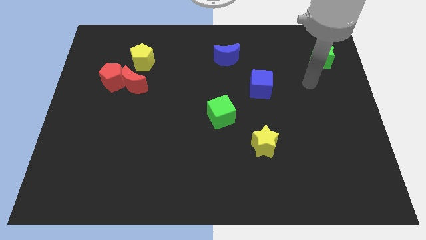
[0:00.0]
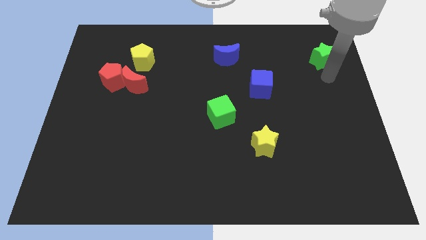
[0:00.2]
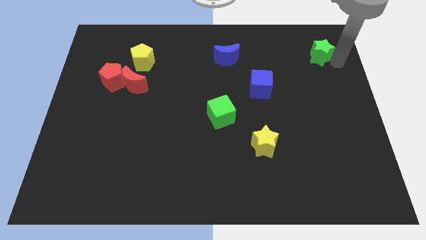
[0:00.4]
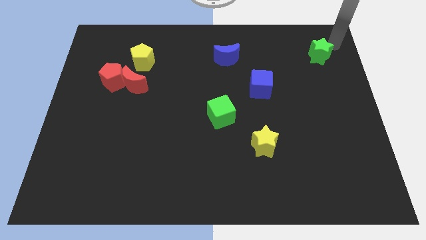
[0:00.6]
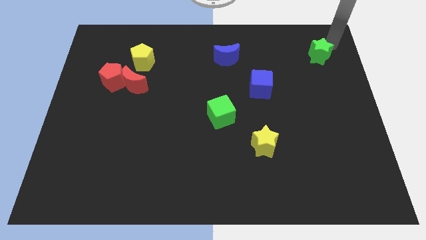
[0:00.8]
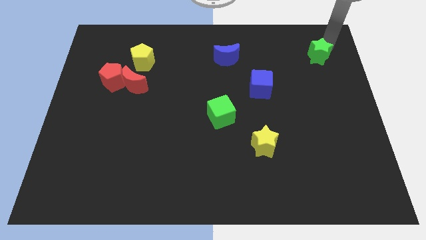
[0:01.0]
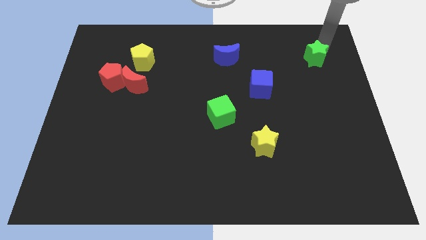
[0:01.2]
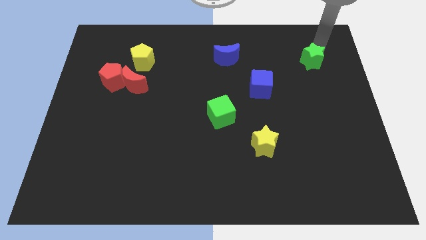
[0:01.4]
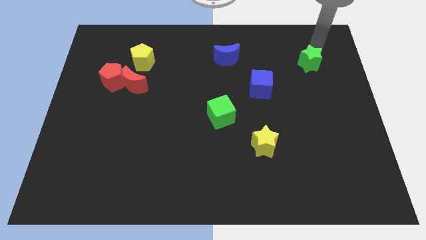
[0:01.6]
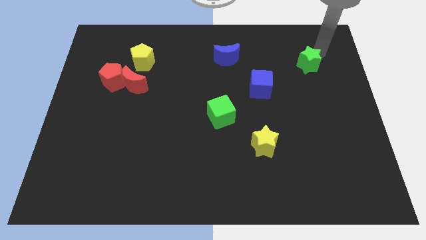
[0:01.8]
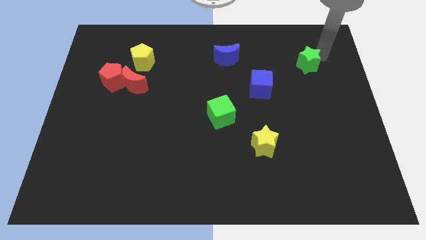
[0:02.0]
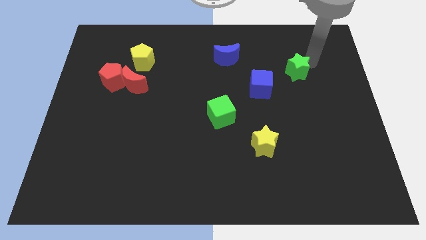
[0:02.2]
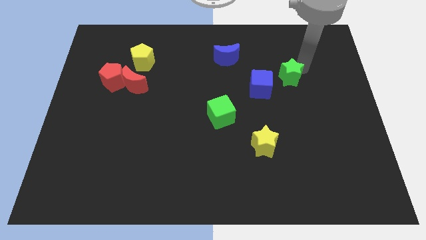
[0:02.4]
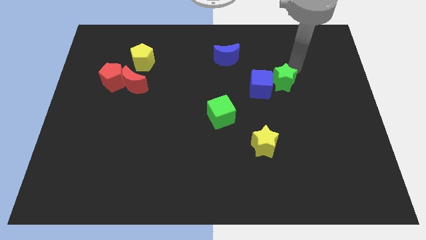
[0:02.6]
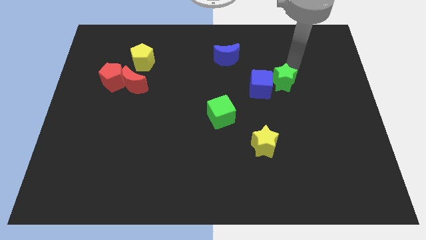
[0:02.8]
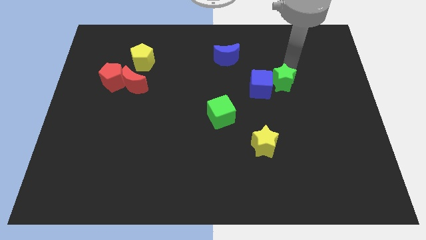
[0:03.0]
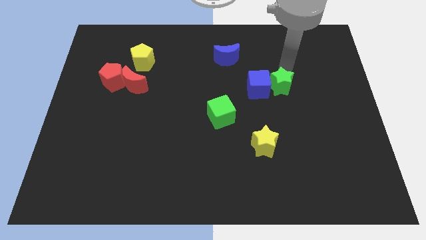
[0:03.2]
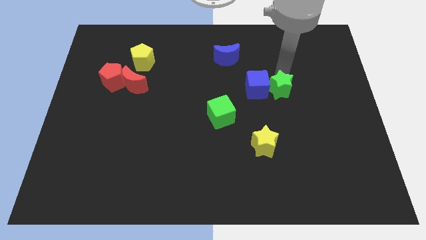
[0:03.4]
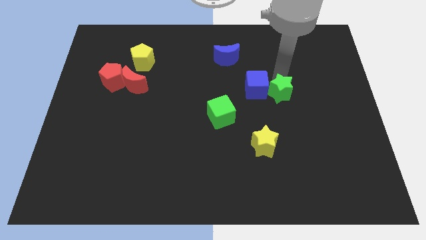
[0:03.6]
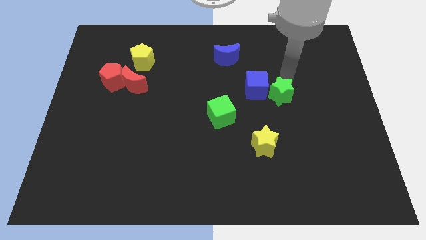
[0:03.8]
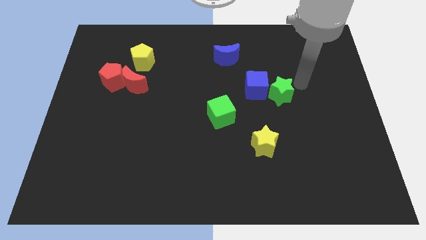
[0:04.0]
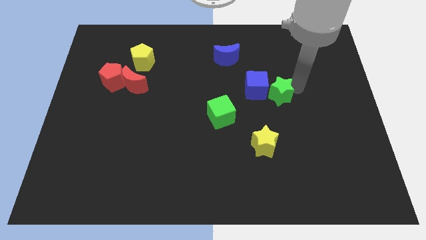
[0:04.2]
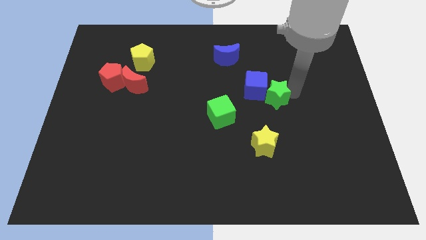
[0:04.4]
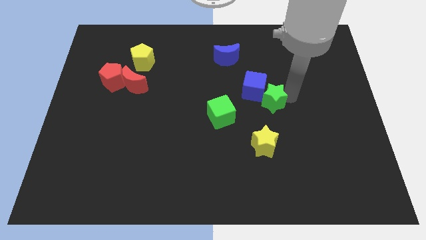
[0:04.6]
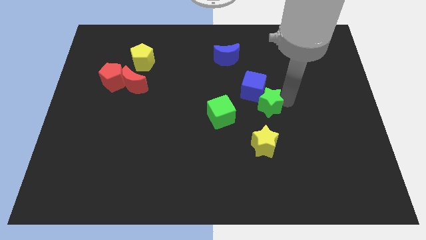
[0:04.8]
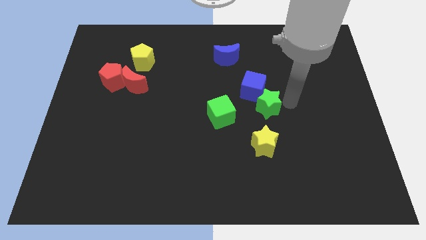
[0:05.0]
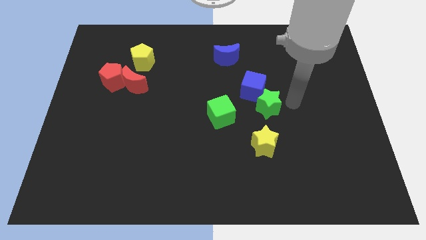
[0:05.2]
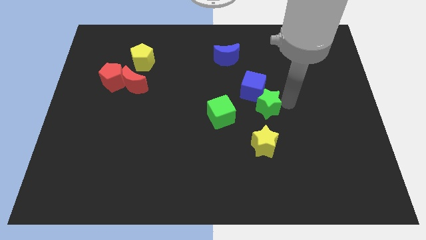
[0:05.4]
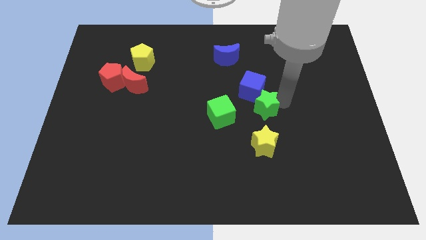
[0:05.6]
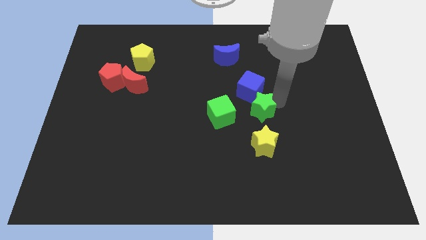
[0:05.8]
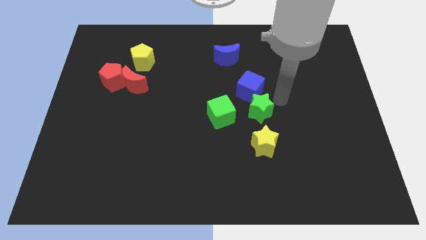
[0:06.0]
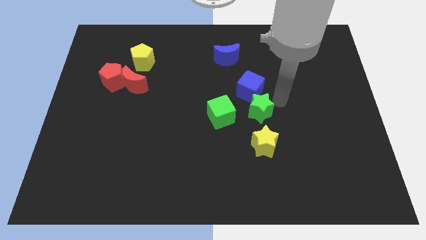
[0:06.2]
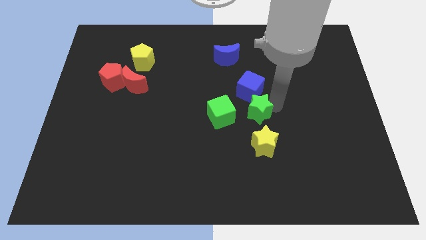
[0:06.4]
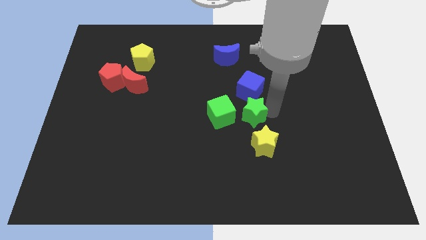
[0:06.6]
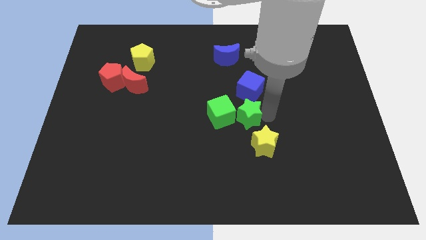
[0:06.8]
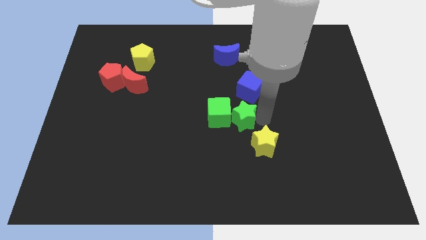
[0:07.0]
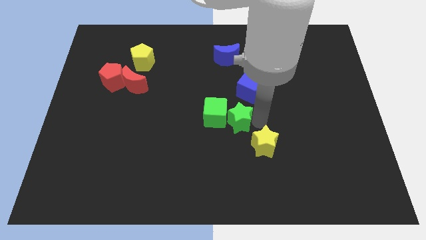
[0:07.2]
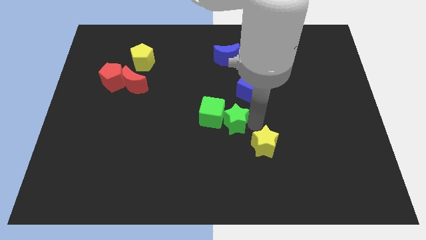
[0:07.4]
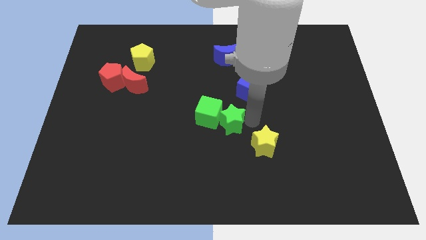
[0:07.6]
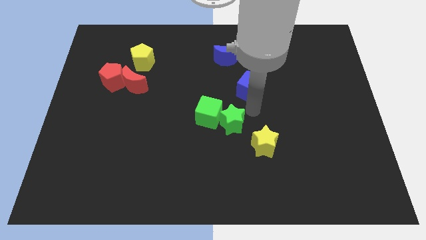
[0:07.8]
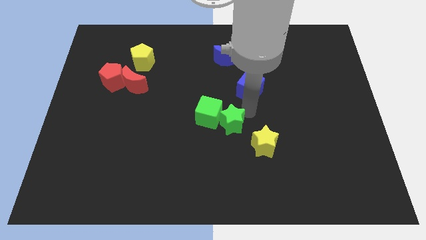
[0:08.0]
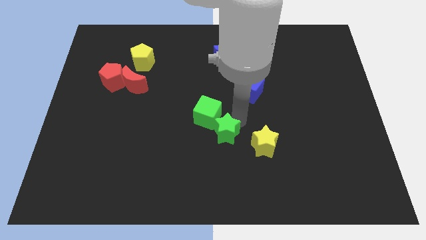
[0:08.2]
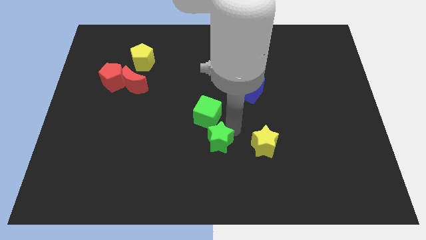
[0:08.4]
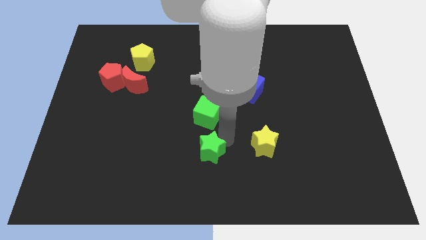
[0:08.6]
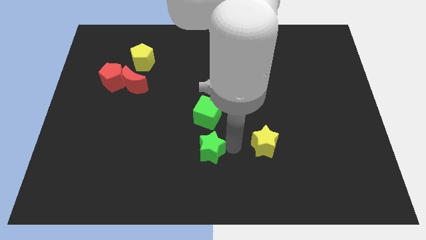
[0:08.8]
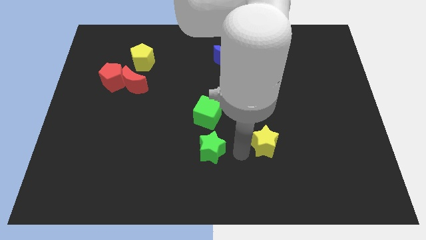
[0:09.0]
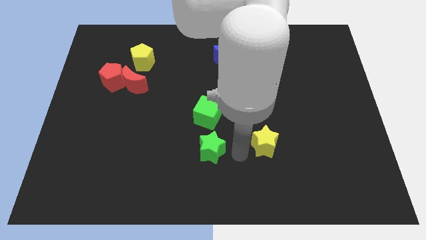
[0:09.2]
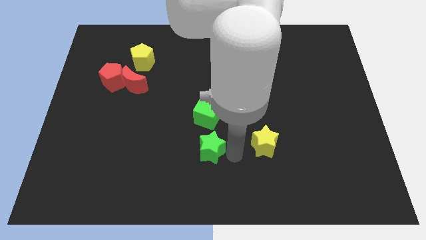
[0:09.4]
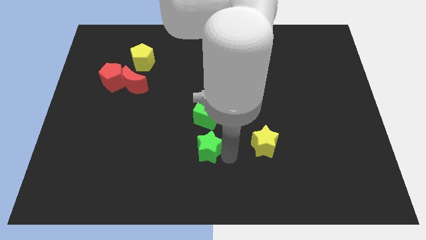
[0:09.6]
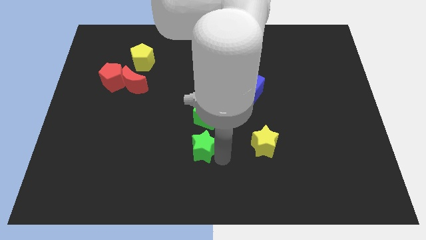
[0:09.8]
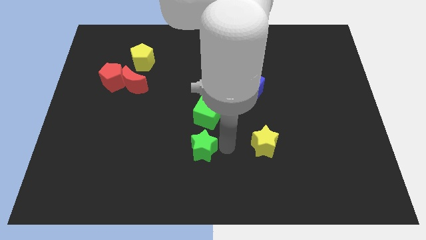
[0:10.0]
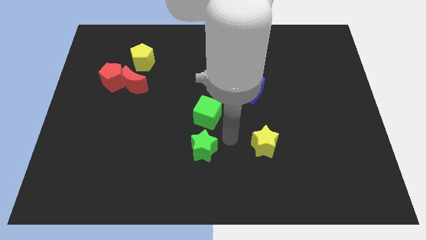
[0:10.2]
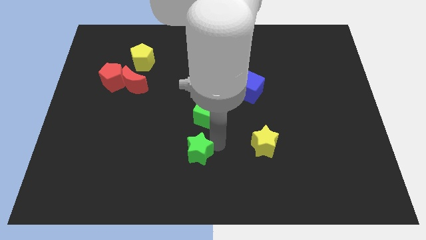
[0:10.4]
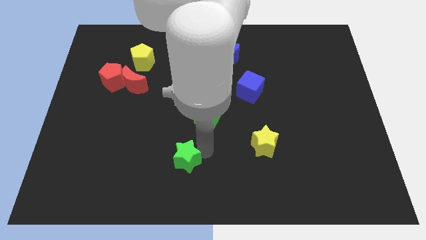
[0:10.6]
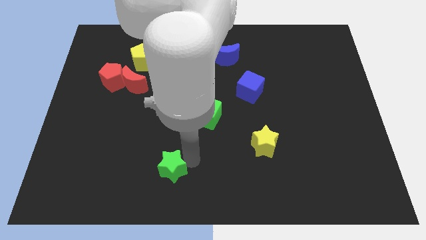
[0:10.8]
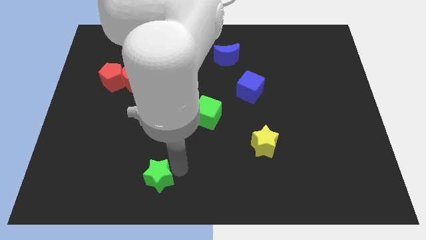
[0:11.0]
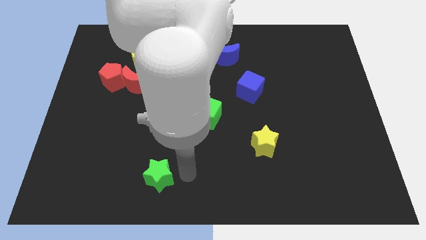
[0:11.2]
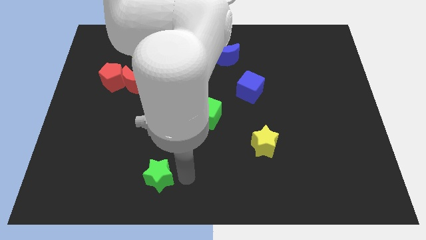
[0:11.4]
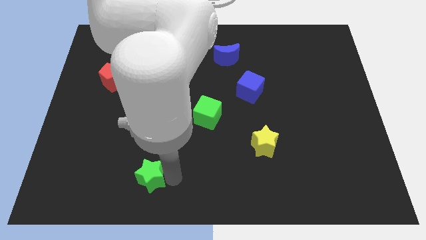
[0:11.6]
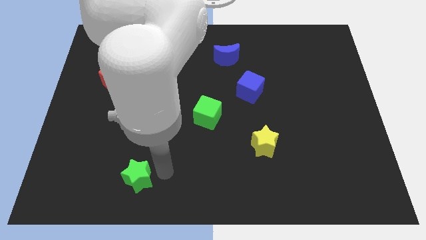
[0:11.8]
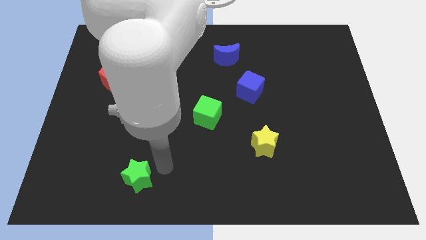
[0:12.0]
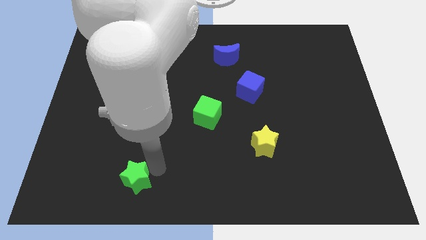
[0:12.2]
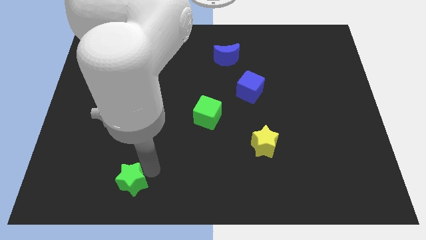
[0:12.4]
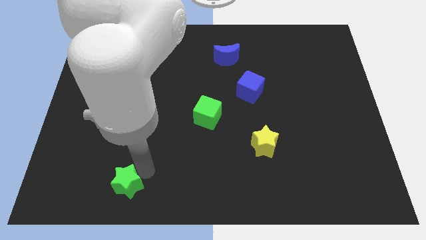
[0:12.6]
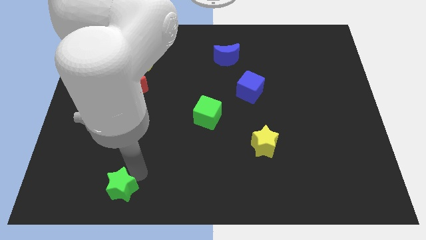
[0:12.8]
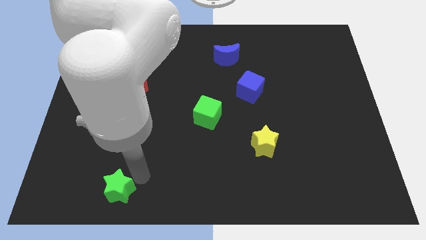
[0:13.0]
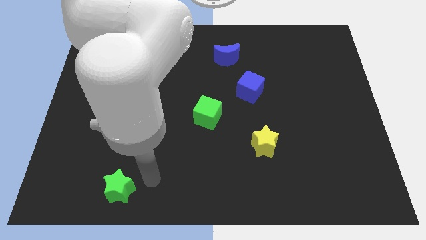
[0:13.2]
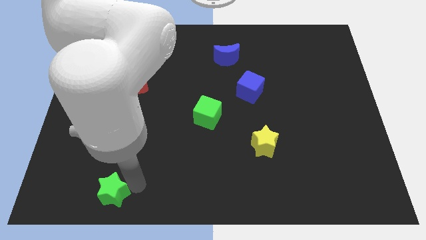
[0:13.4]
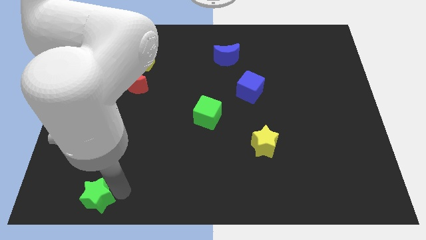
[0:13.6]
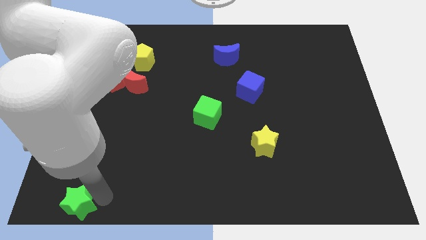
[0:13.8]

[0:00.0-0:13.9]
put the green star to the lower left corner
